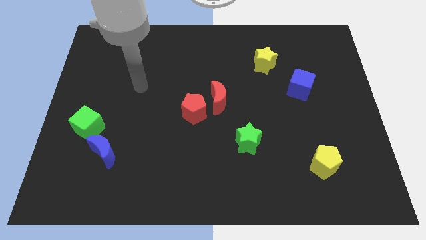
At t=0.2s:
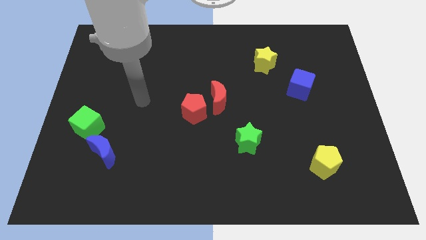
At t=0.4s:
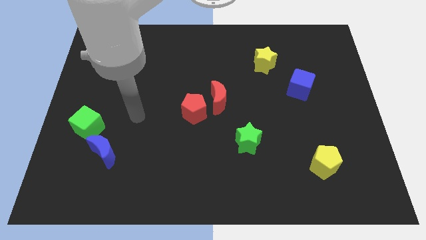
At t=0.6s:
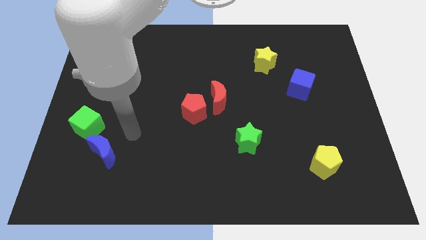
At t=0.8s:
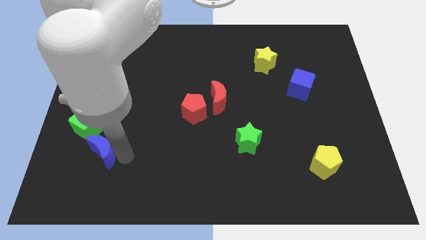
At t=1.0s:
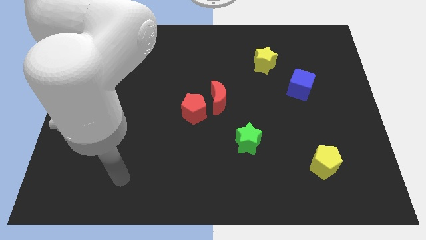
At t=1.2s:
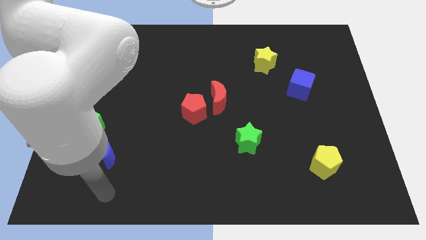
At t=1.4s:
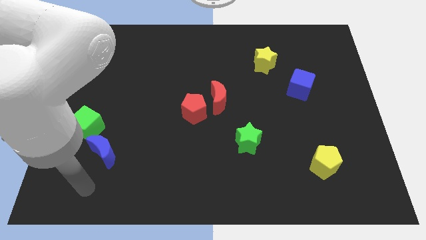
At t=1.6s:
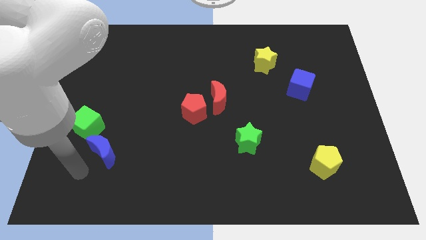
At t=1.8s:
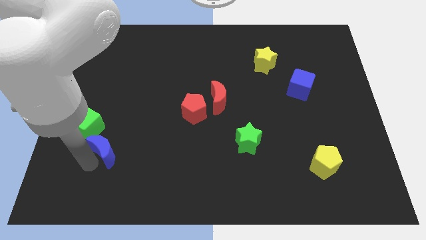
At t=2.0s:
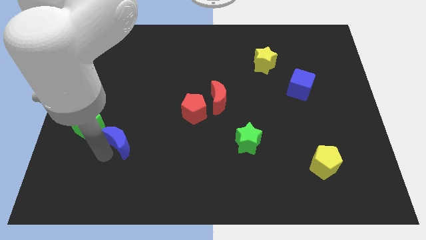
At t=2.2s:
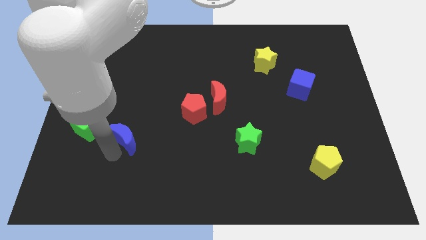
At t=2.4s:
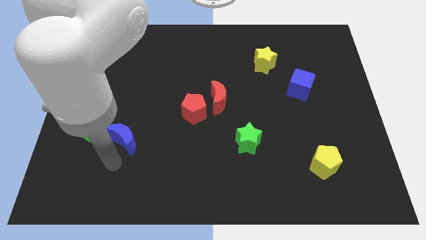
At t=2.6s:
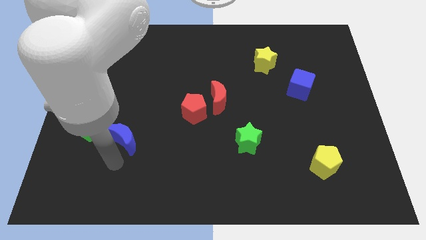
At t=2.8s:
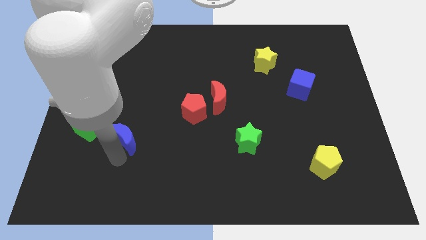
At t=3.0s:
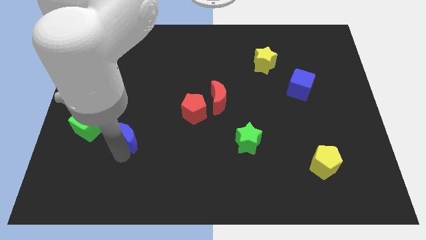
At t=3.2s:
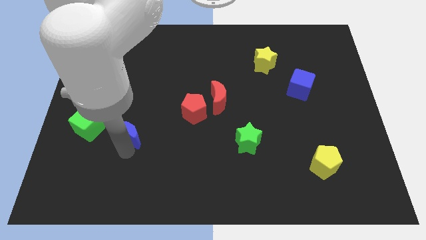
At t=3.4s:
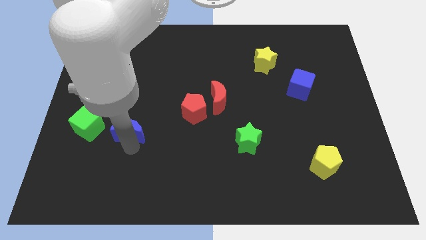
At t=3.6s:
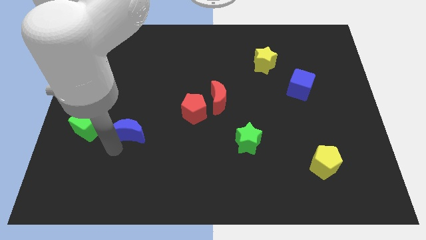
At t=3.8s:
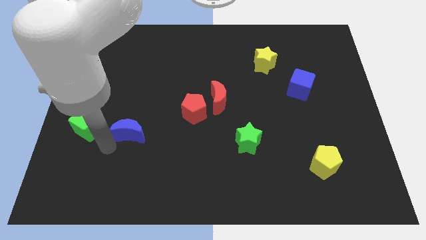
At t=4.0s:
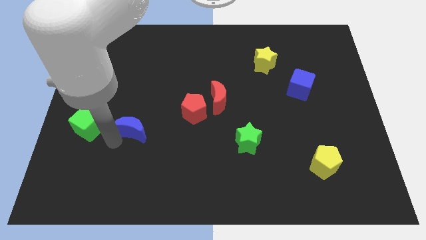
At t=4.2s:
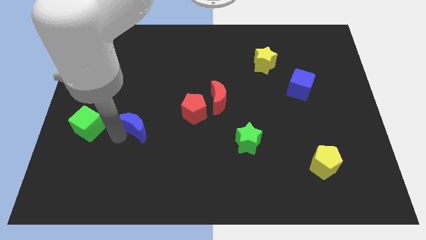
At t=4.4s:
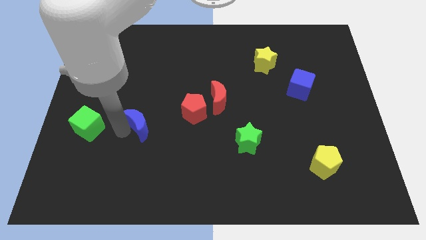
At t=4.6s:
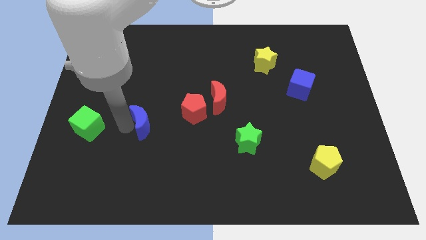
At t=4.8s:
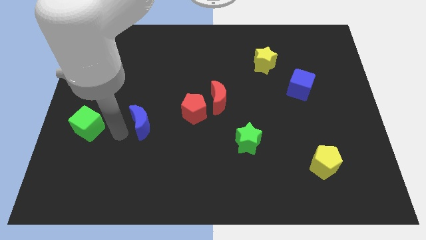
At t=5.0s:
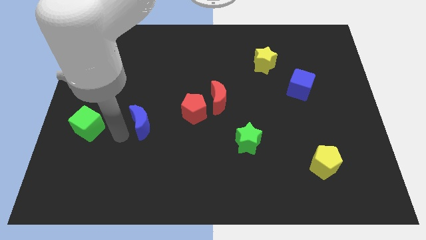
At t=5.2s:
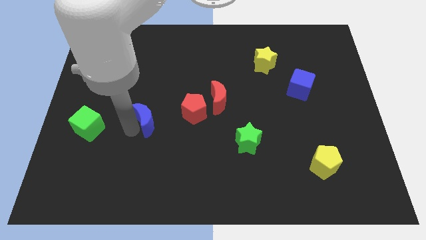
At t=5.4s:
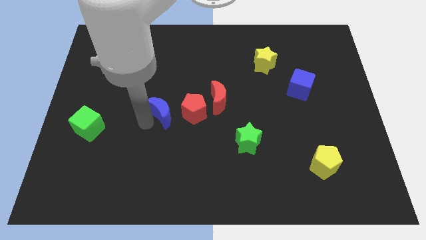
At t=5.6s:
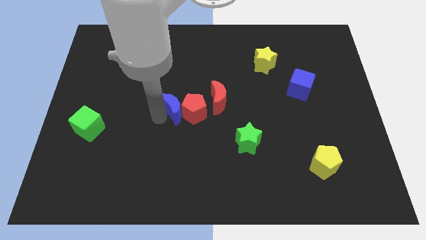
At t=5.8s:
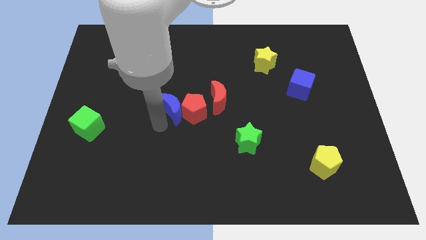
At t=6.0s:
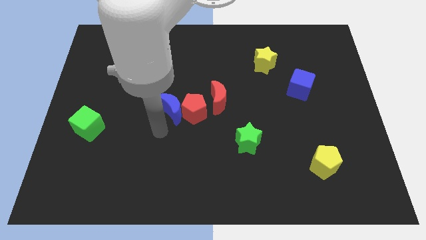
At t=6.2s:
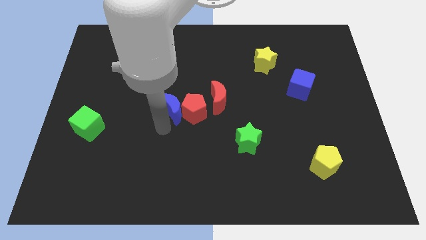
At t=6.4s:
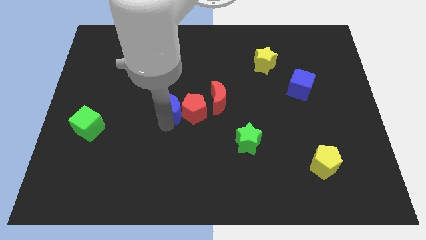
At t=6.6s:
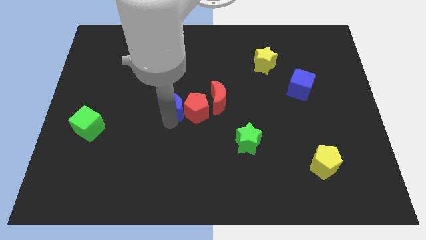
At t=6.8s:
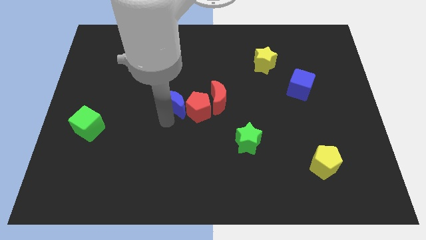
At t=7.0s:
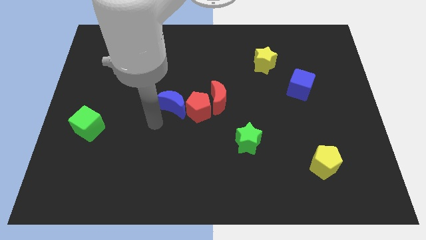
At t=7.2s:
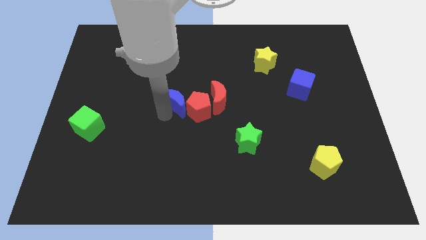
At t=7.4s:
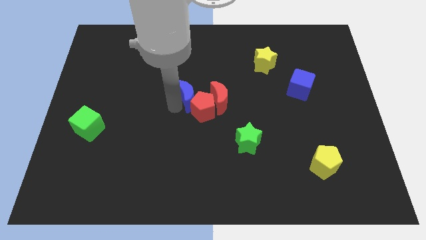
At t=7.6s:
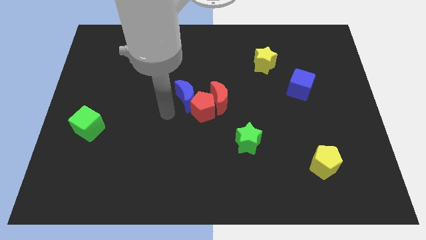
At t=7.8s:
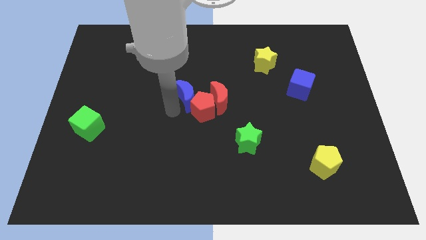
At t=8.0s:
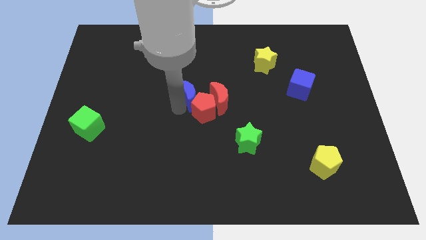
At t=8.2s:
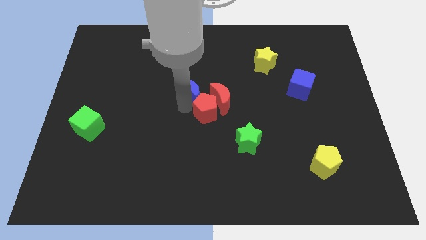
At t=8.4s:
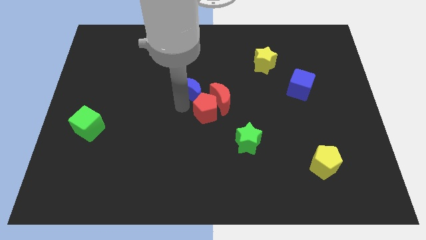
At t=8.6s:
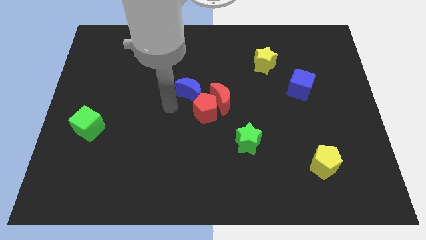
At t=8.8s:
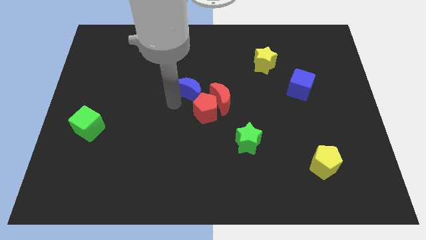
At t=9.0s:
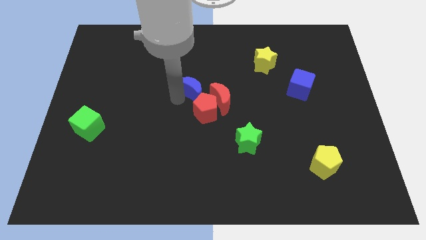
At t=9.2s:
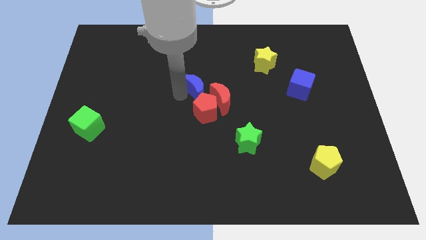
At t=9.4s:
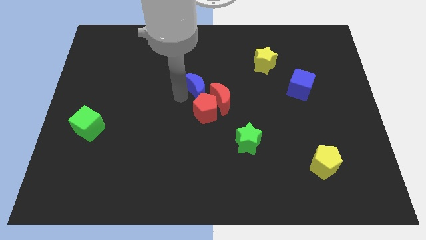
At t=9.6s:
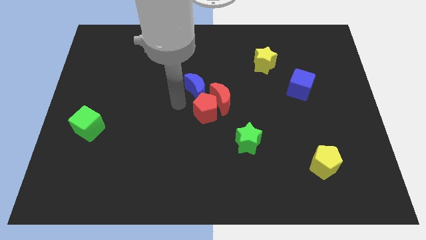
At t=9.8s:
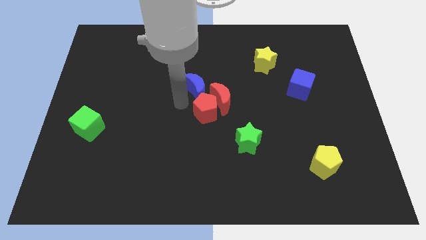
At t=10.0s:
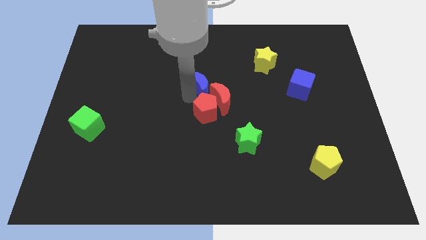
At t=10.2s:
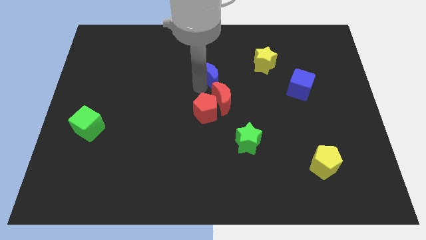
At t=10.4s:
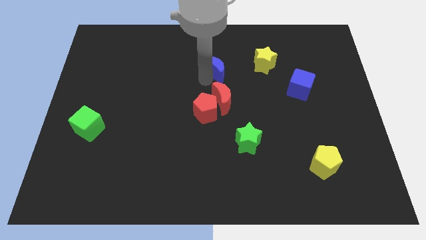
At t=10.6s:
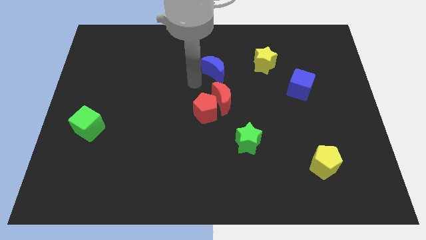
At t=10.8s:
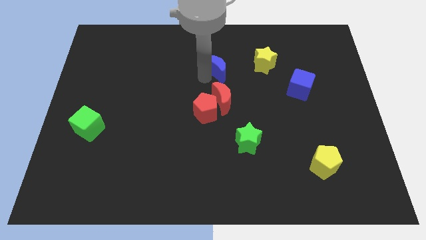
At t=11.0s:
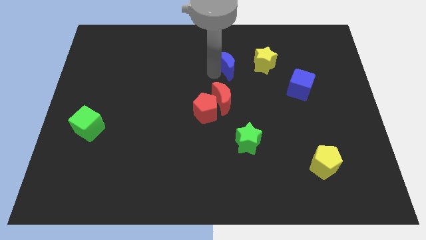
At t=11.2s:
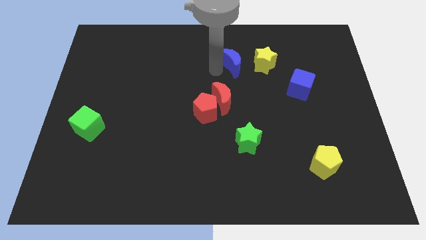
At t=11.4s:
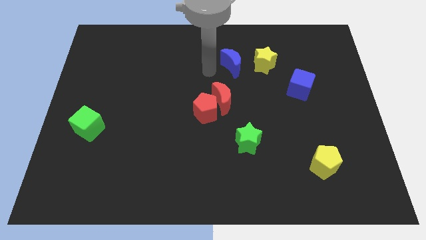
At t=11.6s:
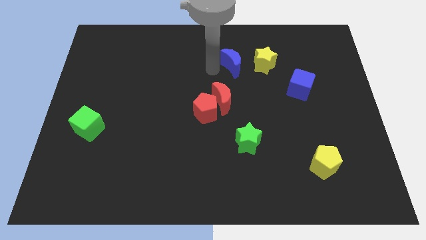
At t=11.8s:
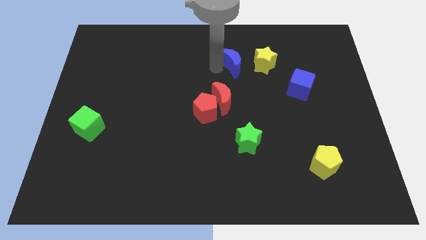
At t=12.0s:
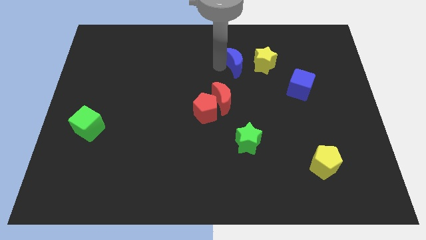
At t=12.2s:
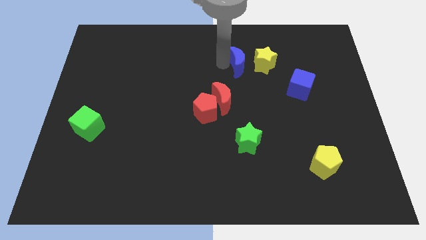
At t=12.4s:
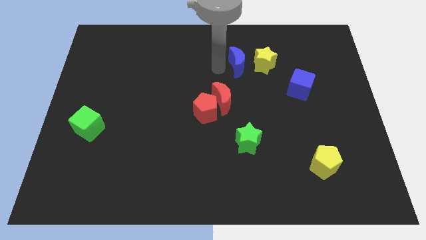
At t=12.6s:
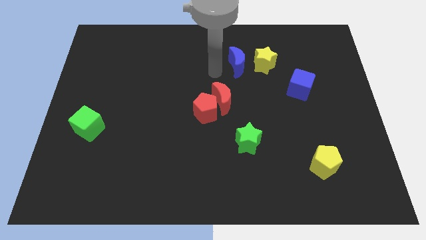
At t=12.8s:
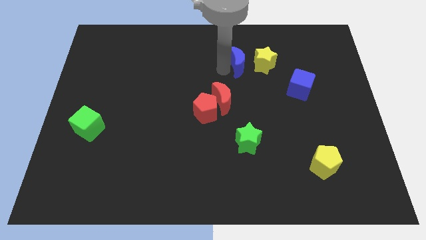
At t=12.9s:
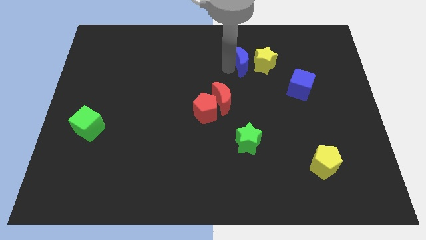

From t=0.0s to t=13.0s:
push the blue moon close to the yellow star

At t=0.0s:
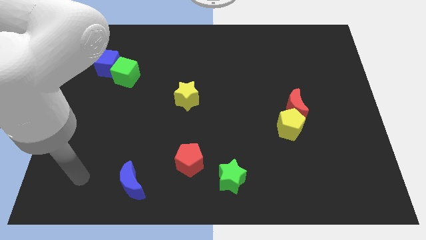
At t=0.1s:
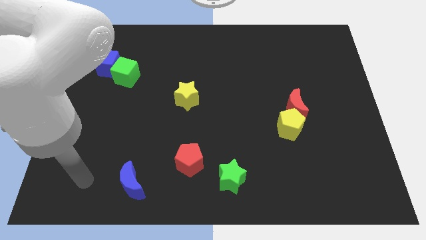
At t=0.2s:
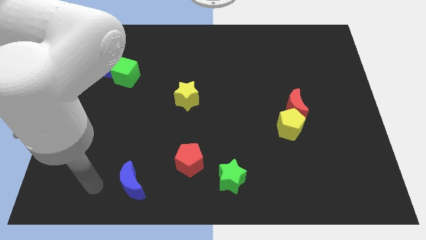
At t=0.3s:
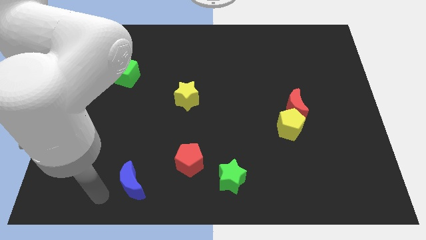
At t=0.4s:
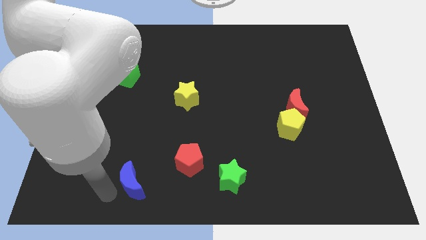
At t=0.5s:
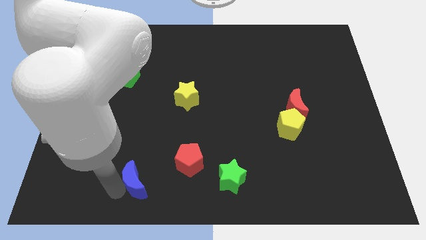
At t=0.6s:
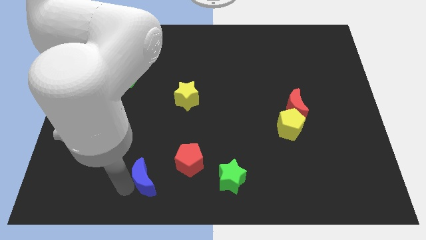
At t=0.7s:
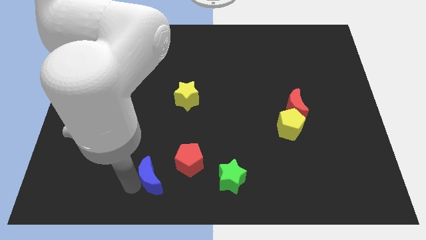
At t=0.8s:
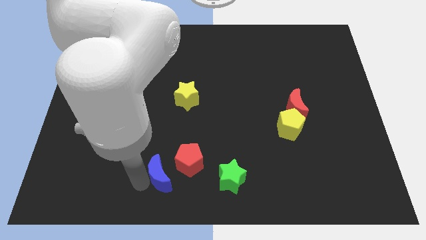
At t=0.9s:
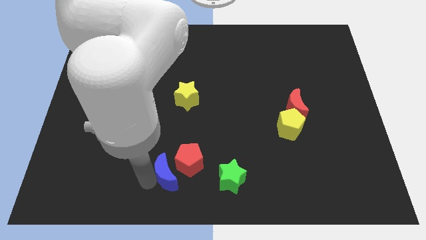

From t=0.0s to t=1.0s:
put the blue moon towards the red pentagon
